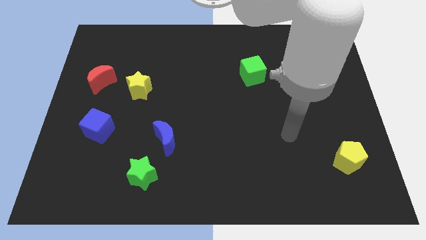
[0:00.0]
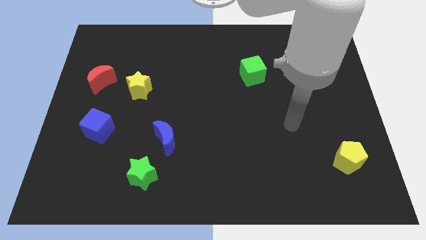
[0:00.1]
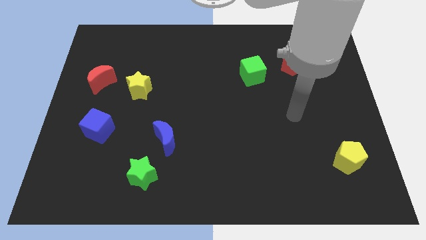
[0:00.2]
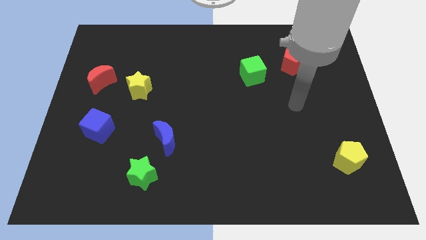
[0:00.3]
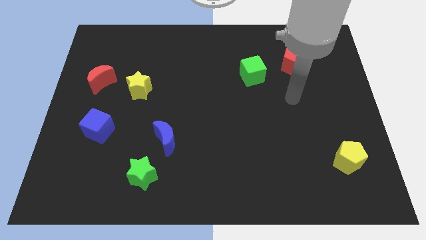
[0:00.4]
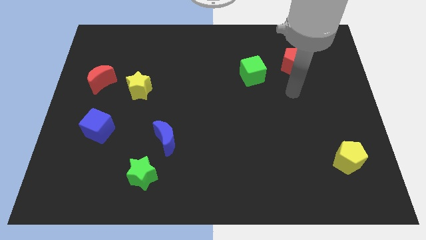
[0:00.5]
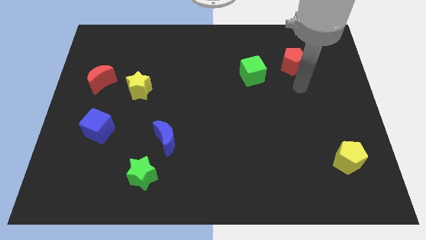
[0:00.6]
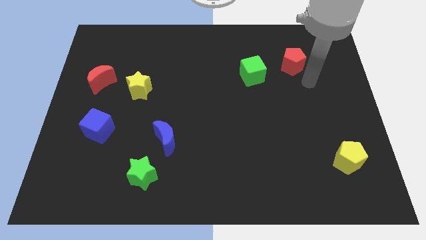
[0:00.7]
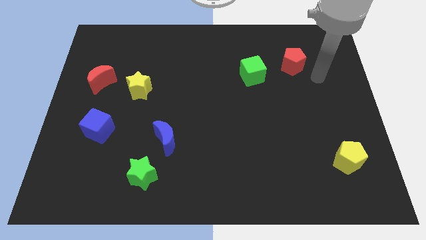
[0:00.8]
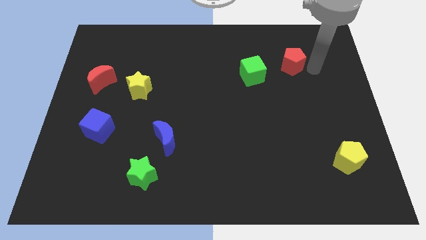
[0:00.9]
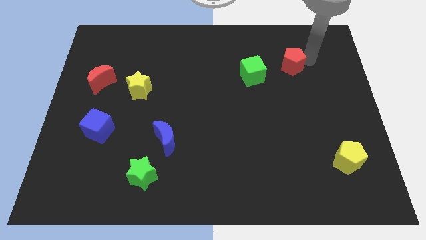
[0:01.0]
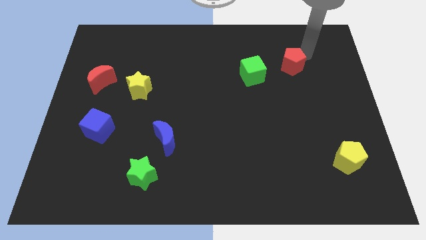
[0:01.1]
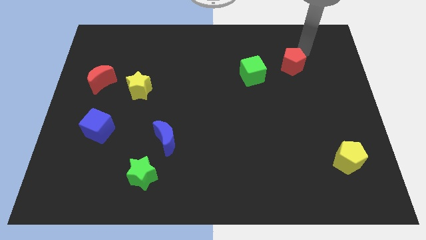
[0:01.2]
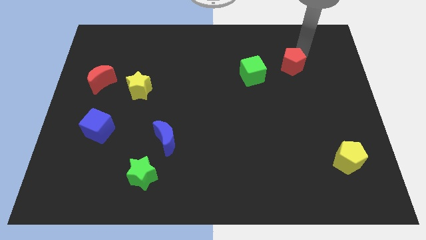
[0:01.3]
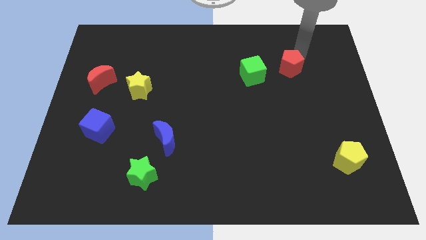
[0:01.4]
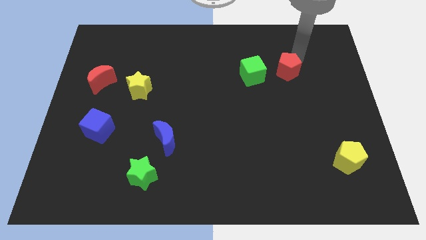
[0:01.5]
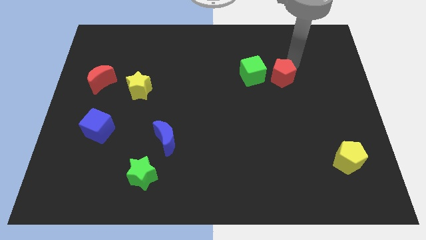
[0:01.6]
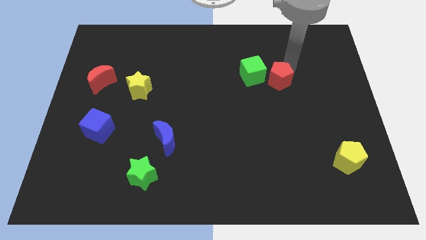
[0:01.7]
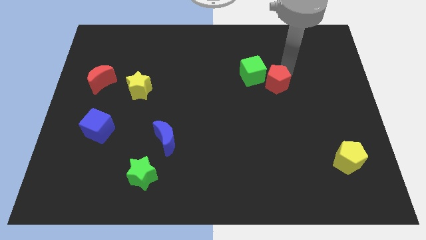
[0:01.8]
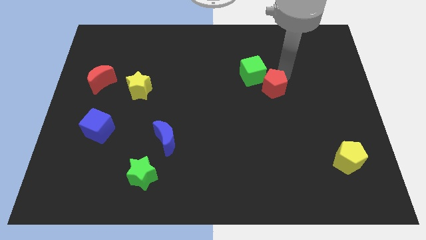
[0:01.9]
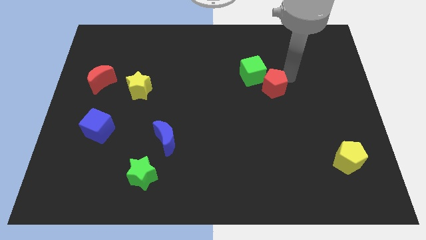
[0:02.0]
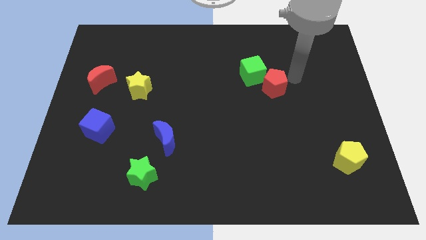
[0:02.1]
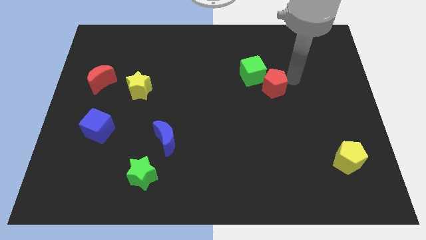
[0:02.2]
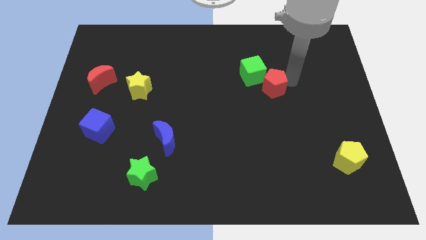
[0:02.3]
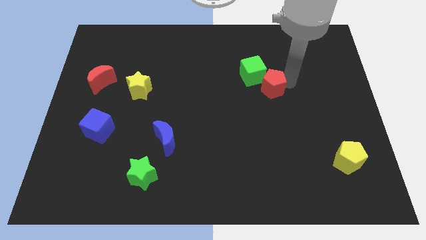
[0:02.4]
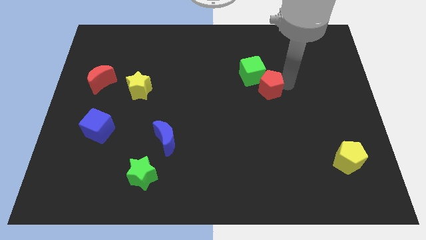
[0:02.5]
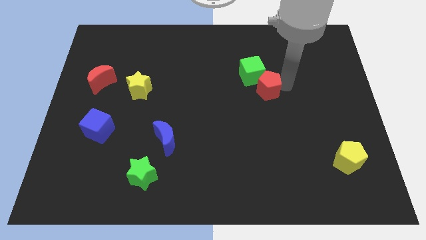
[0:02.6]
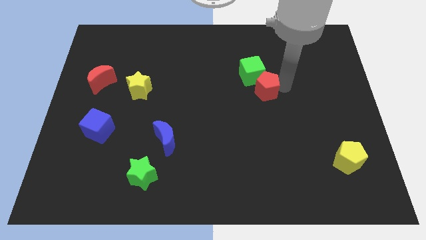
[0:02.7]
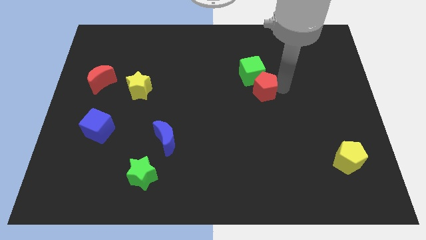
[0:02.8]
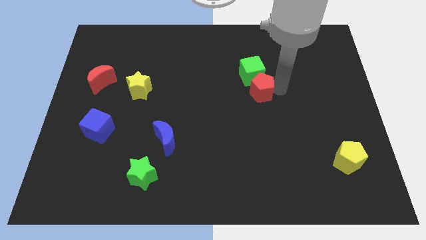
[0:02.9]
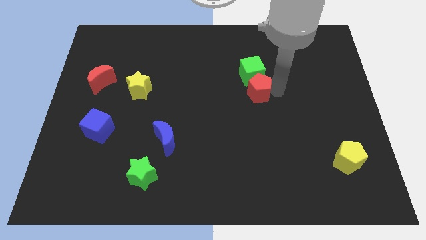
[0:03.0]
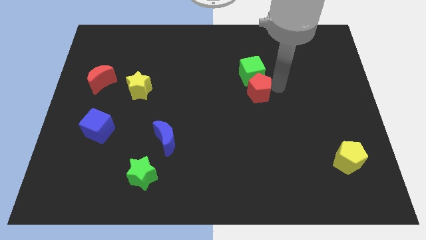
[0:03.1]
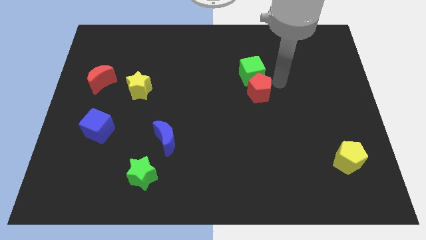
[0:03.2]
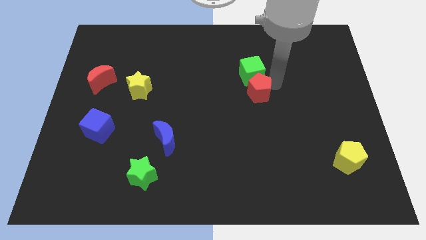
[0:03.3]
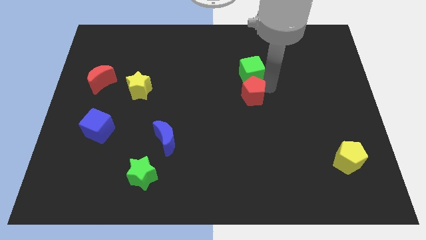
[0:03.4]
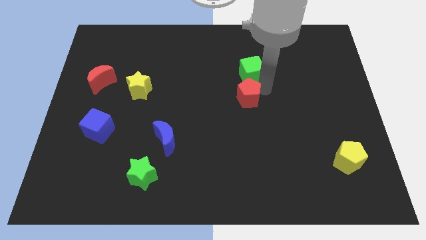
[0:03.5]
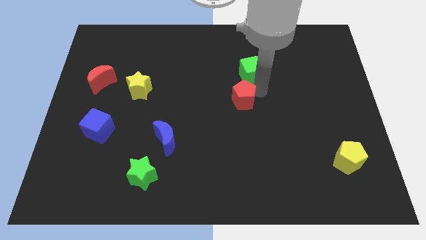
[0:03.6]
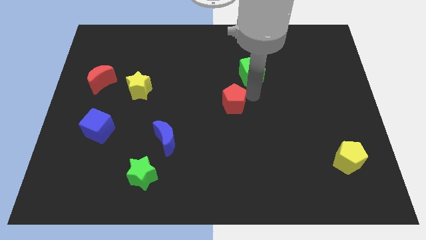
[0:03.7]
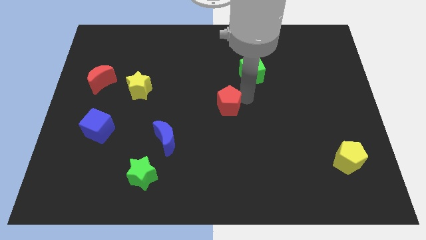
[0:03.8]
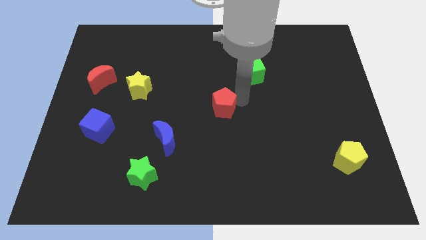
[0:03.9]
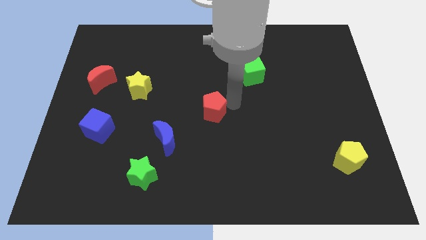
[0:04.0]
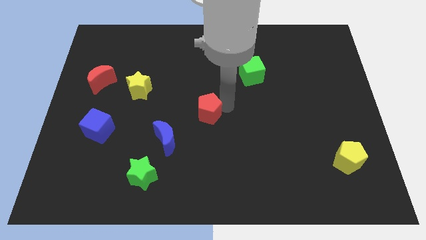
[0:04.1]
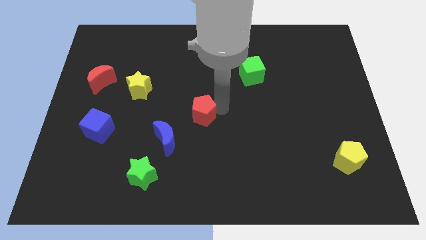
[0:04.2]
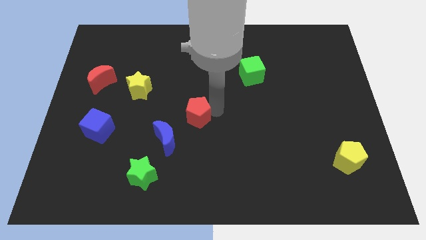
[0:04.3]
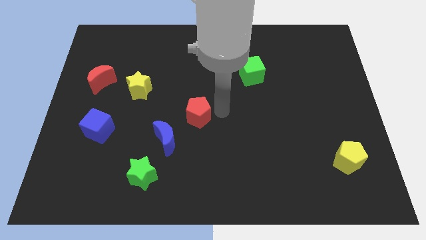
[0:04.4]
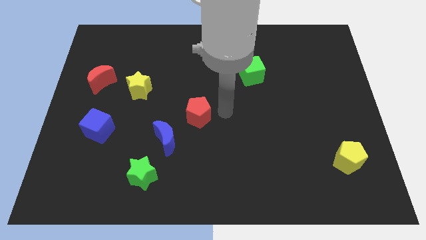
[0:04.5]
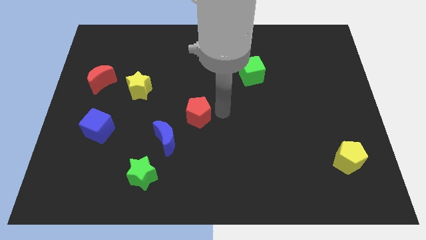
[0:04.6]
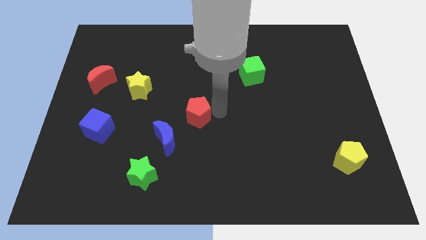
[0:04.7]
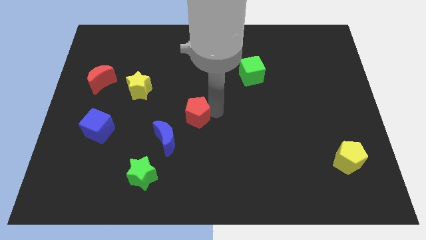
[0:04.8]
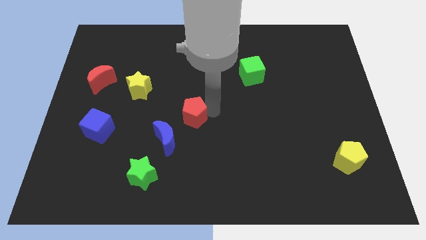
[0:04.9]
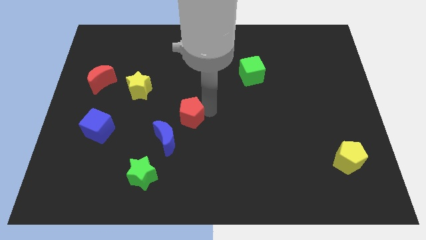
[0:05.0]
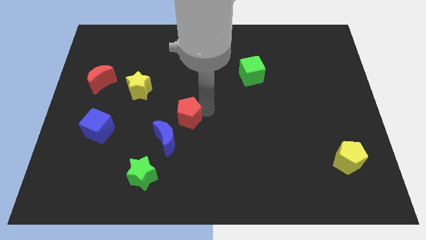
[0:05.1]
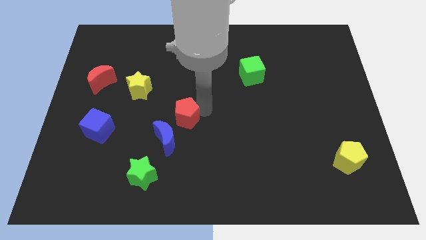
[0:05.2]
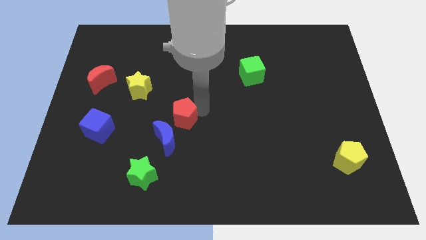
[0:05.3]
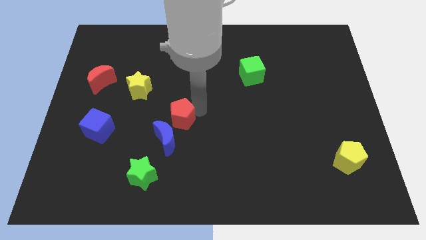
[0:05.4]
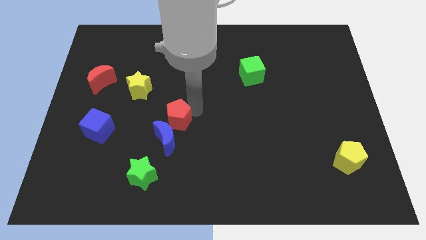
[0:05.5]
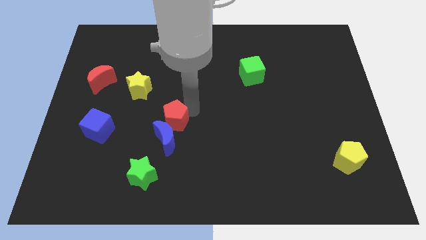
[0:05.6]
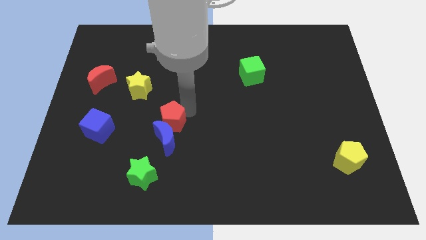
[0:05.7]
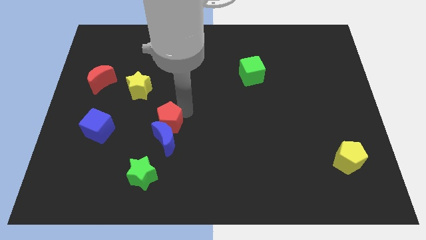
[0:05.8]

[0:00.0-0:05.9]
push the red pentagon above the green star
